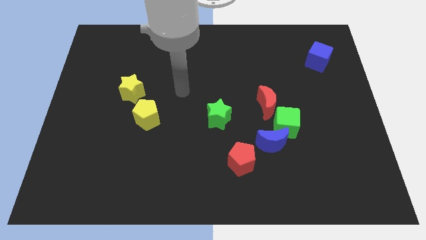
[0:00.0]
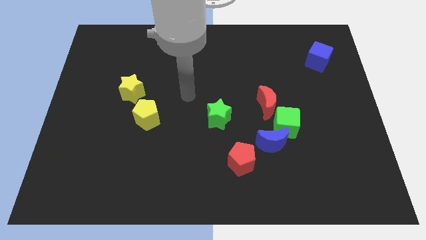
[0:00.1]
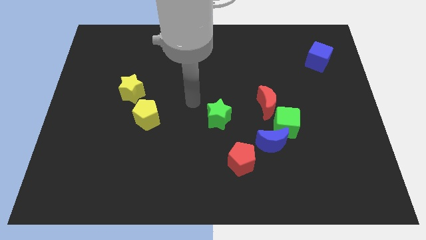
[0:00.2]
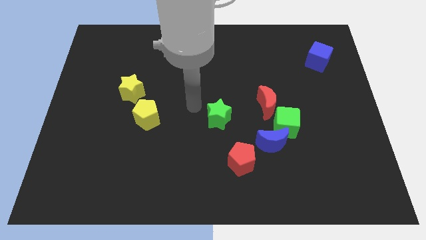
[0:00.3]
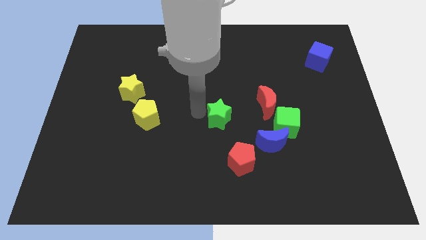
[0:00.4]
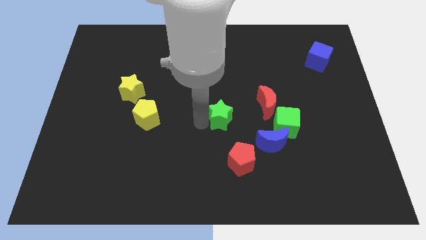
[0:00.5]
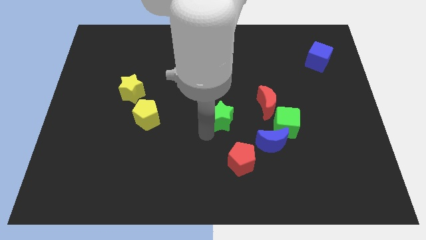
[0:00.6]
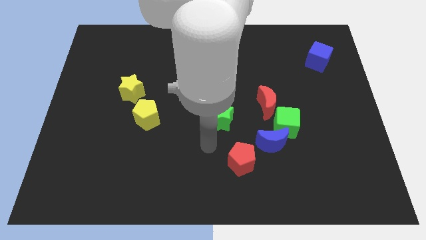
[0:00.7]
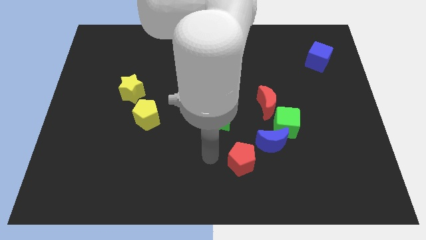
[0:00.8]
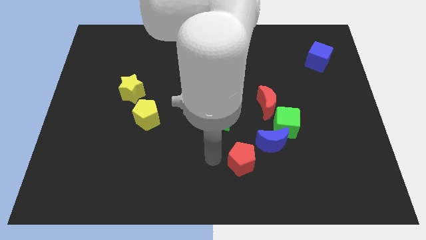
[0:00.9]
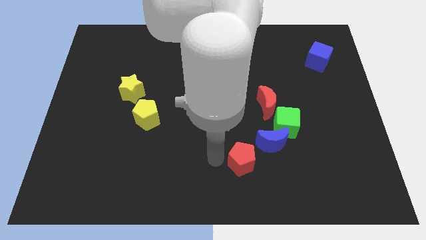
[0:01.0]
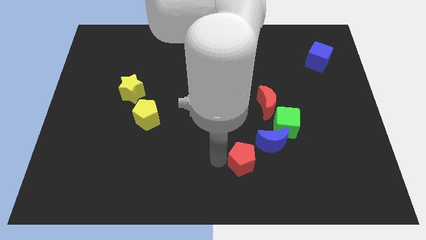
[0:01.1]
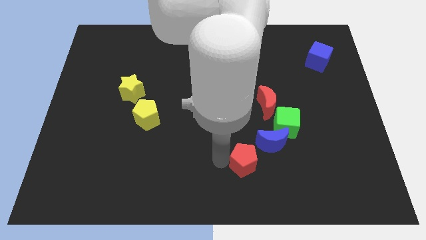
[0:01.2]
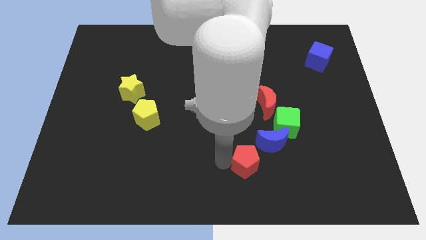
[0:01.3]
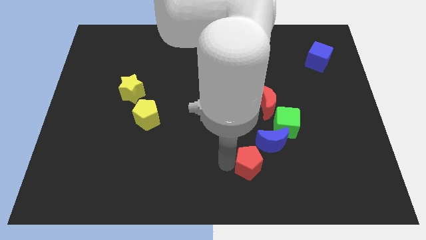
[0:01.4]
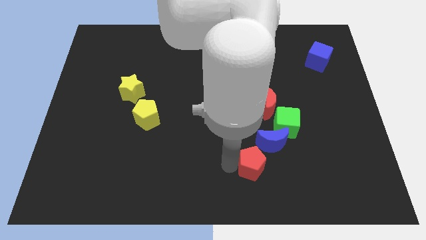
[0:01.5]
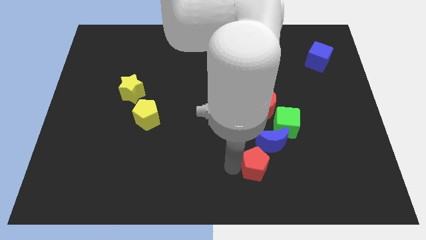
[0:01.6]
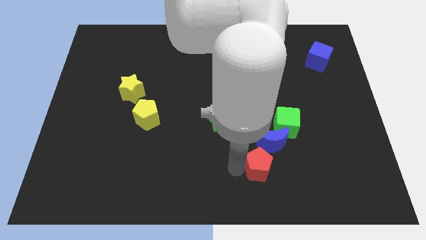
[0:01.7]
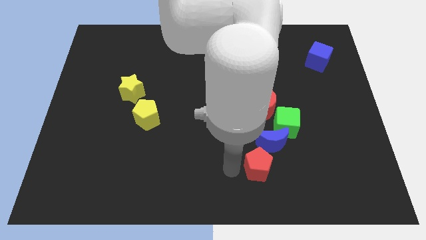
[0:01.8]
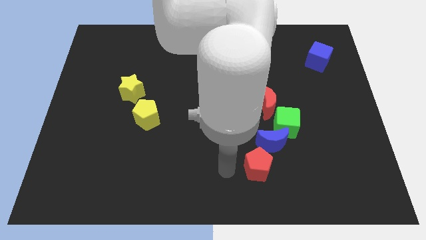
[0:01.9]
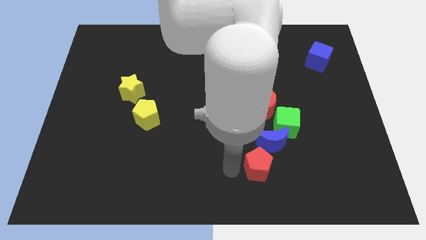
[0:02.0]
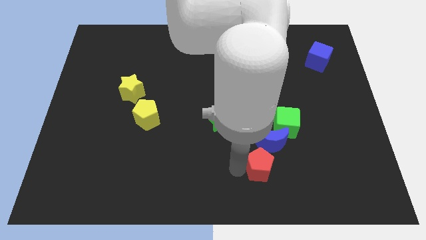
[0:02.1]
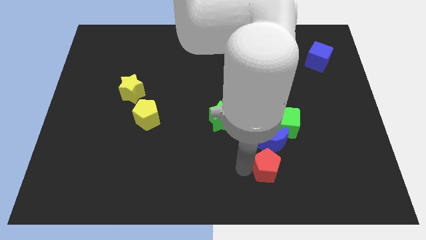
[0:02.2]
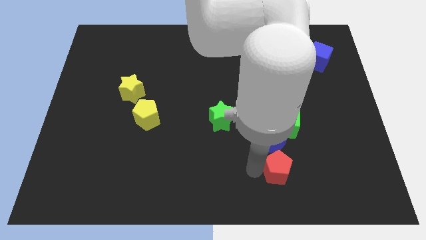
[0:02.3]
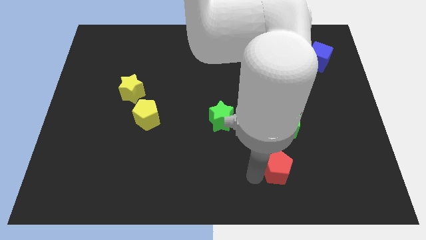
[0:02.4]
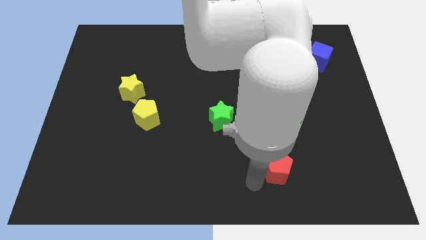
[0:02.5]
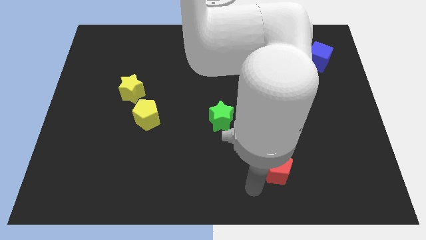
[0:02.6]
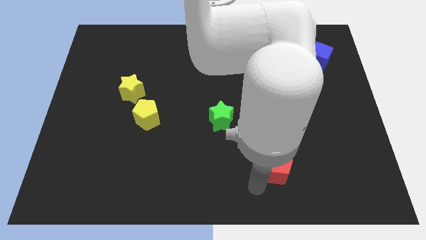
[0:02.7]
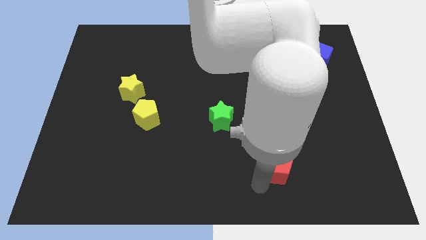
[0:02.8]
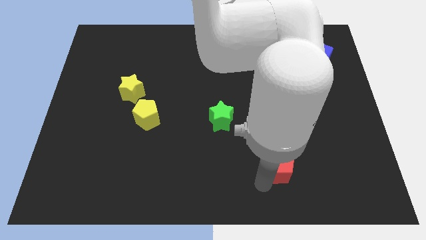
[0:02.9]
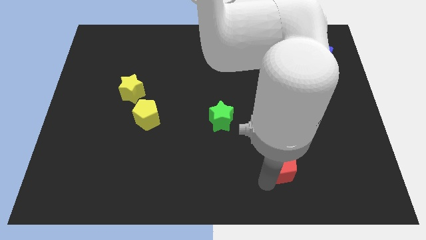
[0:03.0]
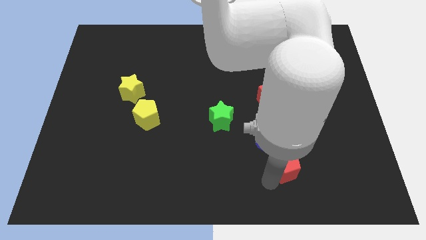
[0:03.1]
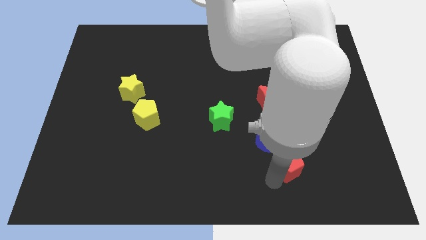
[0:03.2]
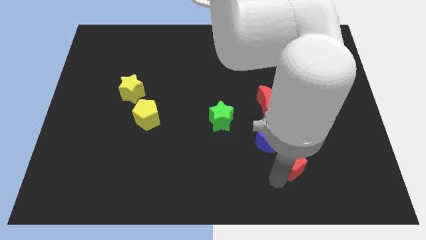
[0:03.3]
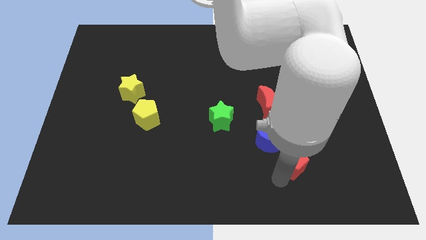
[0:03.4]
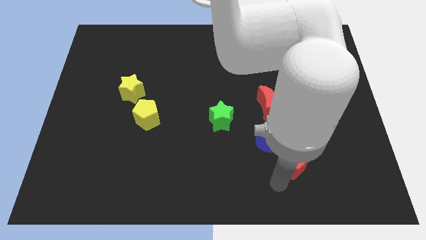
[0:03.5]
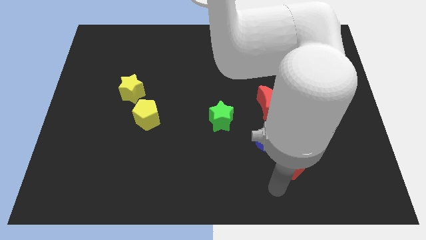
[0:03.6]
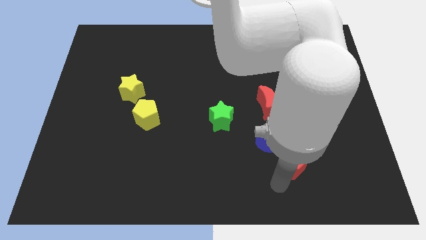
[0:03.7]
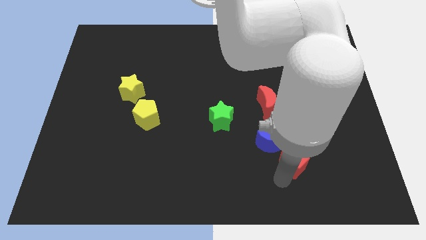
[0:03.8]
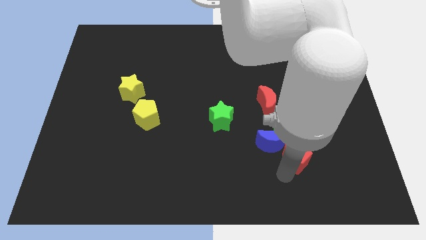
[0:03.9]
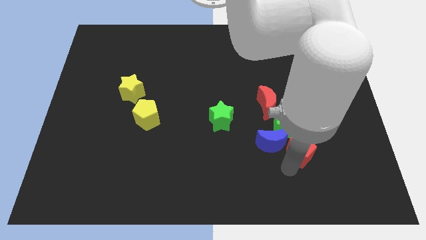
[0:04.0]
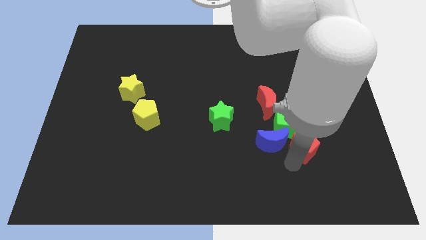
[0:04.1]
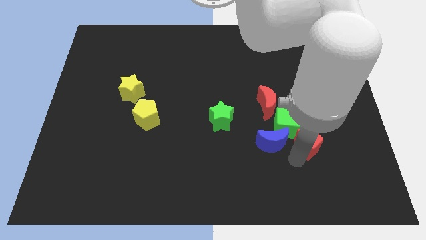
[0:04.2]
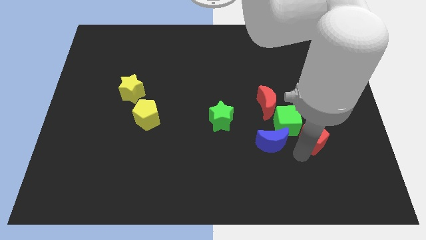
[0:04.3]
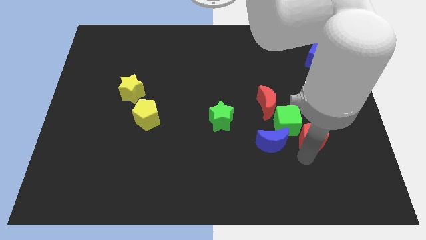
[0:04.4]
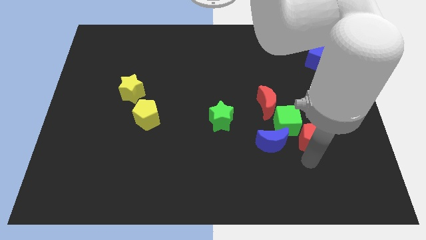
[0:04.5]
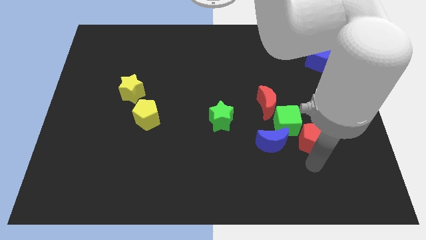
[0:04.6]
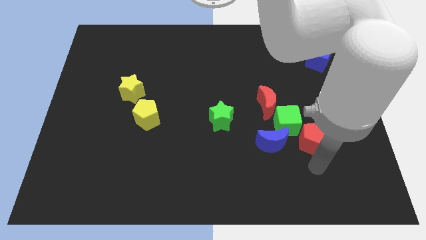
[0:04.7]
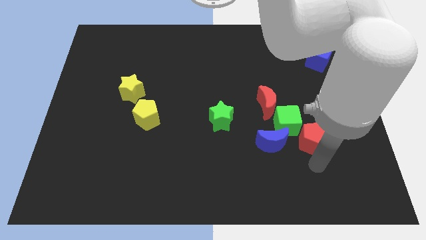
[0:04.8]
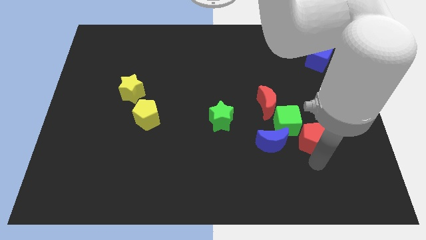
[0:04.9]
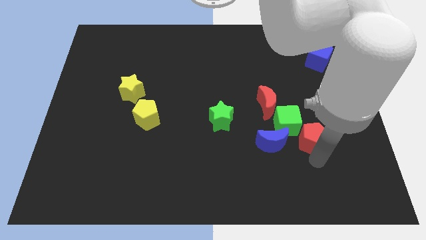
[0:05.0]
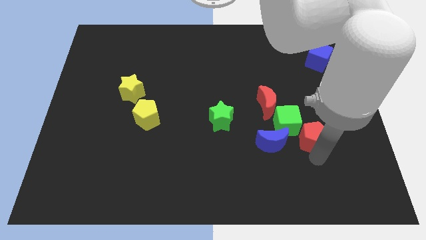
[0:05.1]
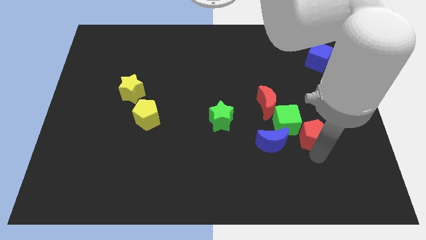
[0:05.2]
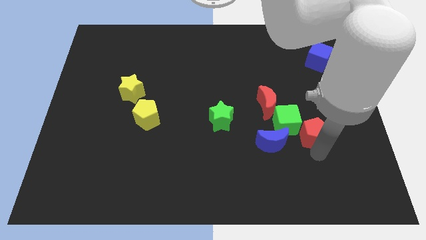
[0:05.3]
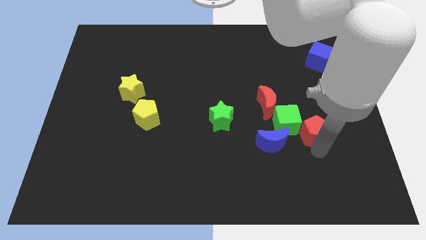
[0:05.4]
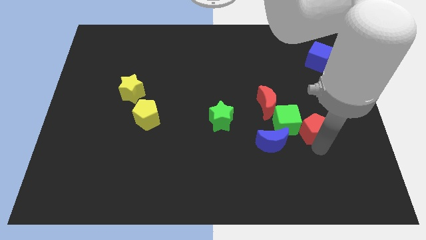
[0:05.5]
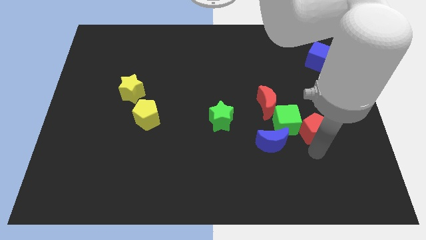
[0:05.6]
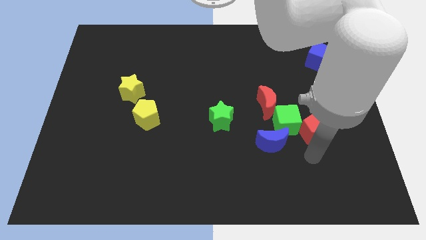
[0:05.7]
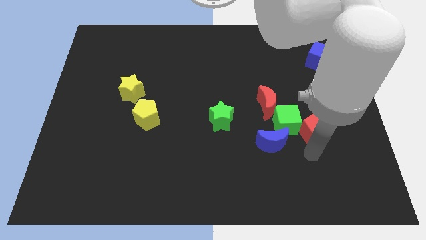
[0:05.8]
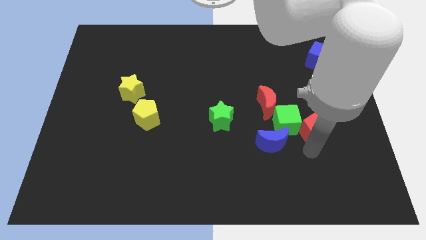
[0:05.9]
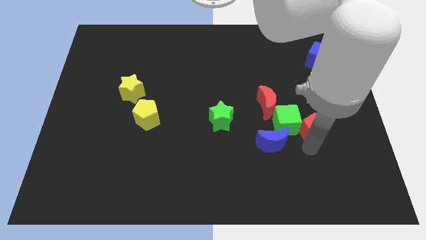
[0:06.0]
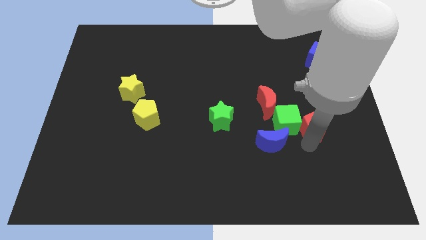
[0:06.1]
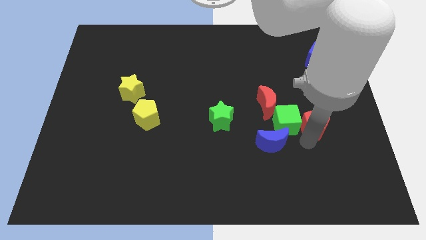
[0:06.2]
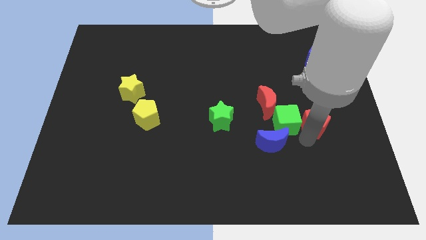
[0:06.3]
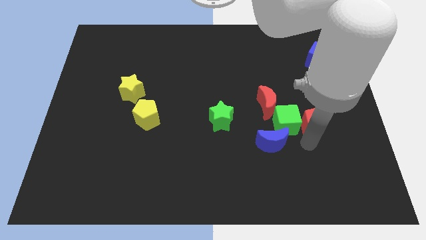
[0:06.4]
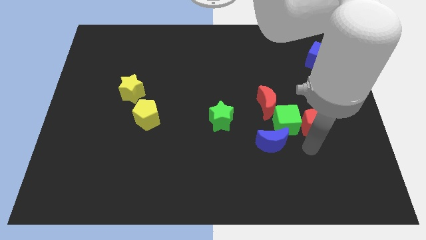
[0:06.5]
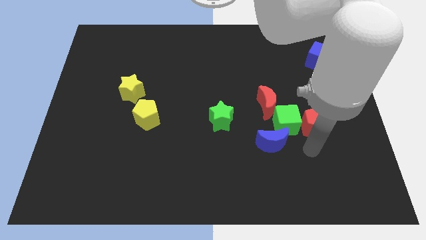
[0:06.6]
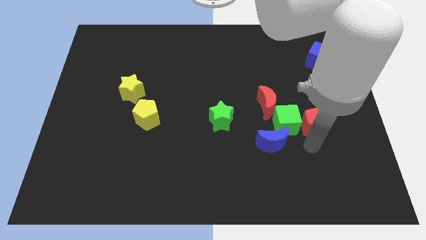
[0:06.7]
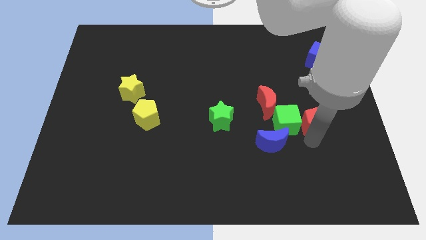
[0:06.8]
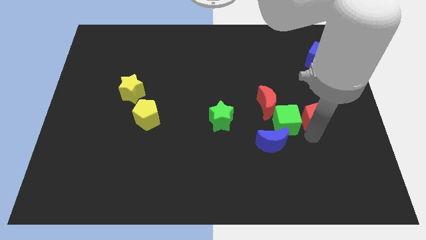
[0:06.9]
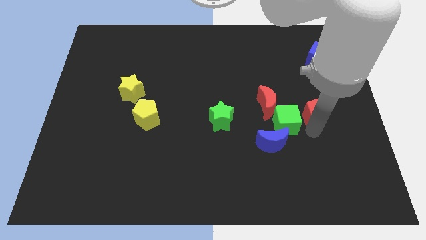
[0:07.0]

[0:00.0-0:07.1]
push the red pentagon upwards and then right

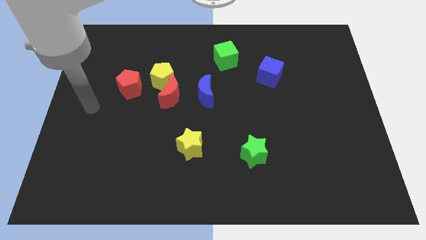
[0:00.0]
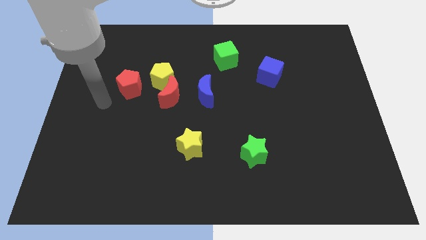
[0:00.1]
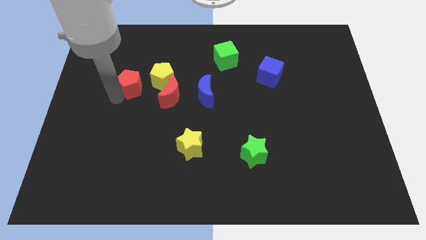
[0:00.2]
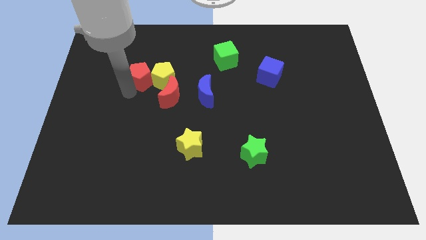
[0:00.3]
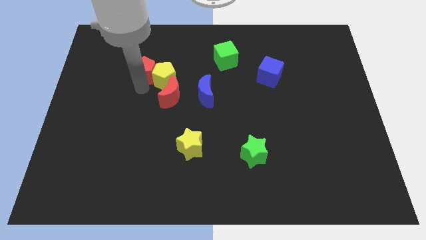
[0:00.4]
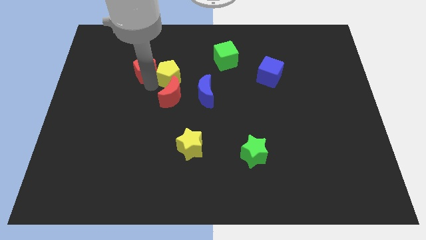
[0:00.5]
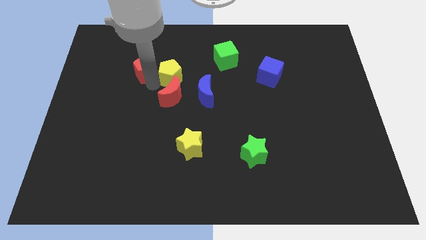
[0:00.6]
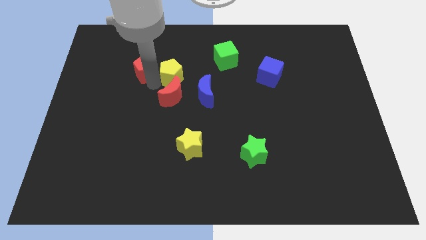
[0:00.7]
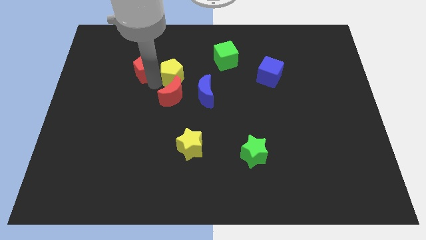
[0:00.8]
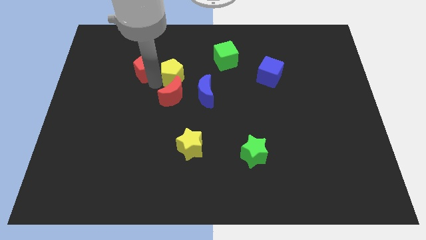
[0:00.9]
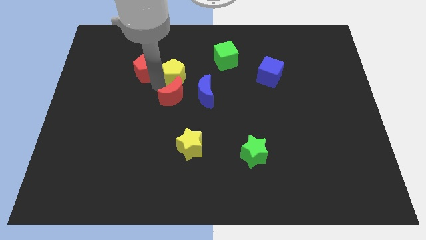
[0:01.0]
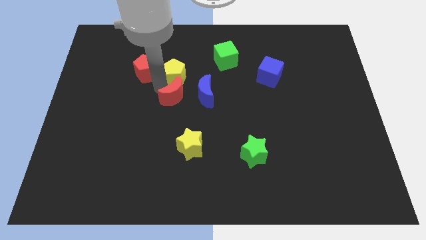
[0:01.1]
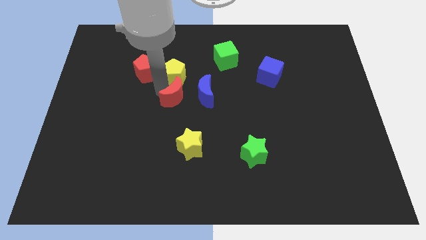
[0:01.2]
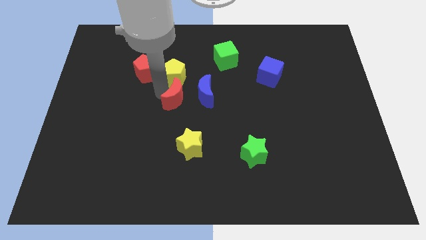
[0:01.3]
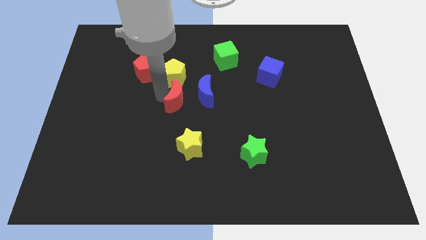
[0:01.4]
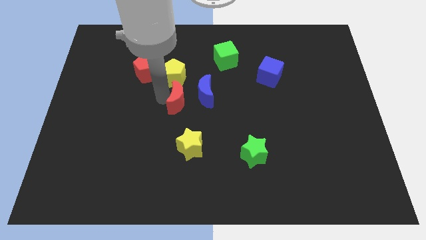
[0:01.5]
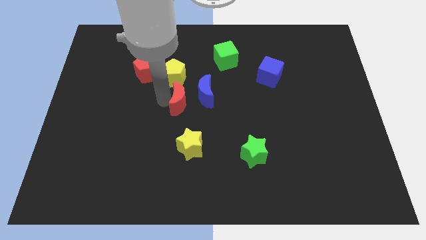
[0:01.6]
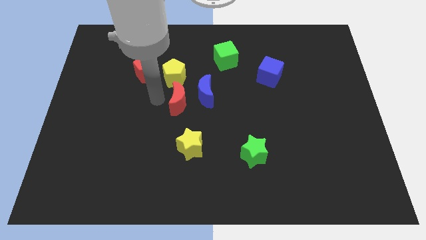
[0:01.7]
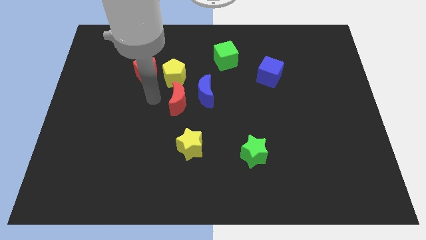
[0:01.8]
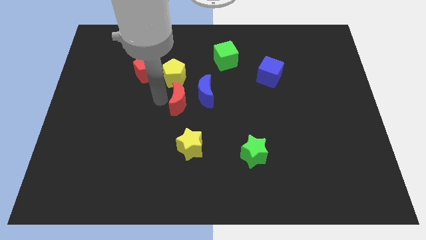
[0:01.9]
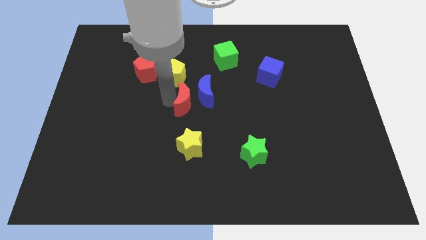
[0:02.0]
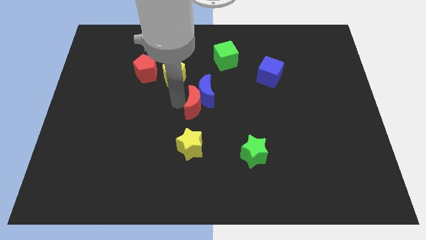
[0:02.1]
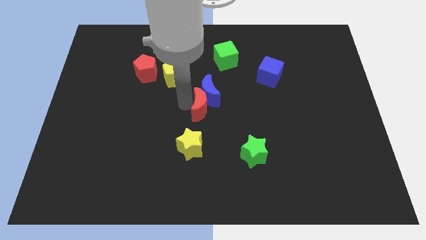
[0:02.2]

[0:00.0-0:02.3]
push the red moon to the right somewhat
